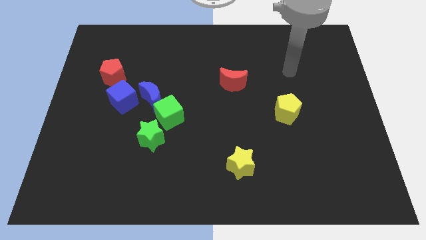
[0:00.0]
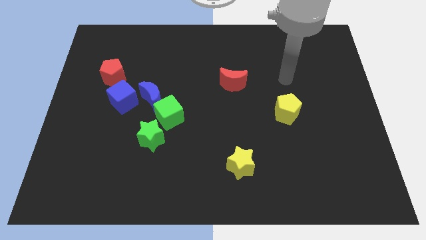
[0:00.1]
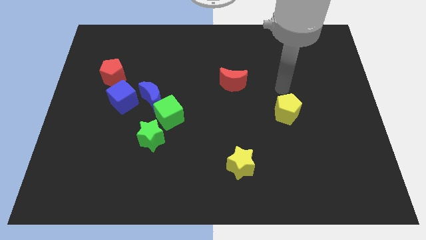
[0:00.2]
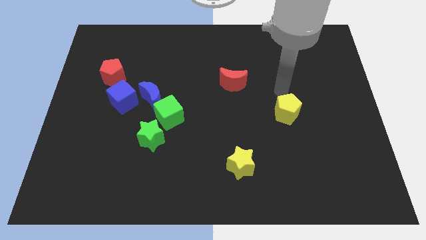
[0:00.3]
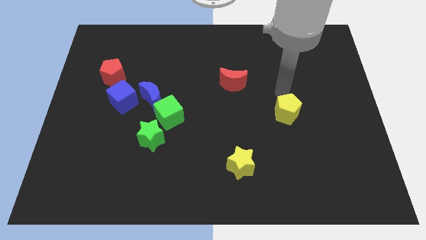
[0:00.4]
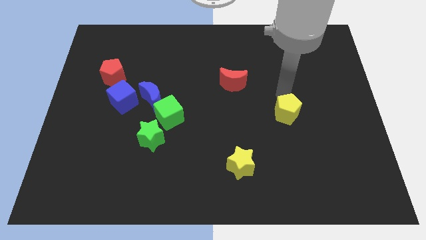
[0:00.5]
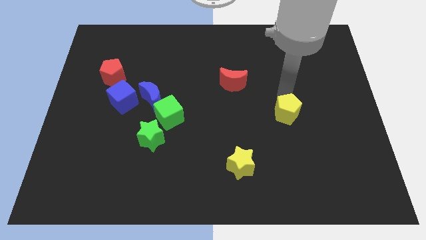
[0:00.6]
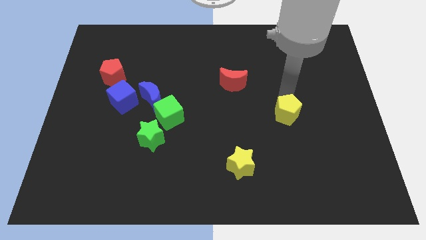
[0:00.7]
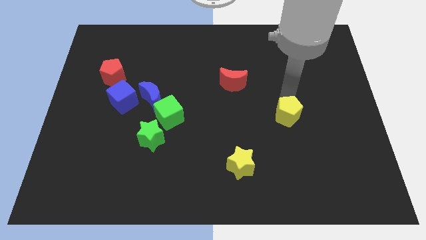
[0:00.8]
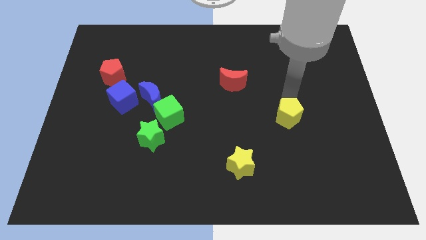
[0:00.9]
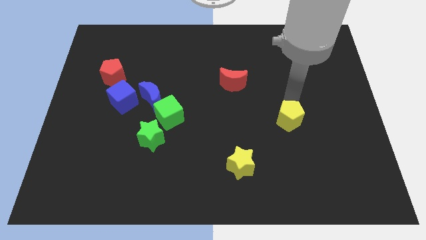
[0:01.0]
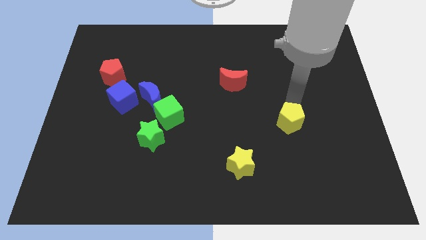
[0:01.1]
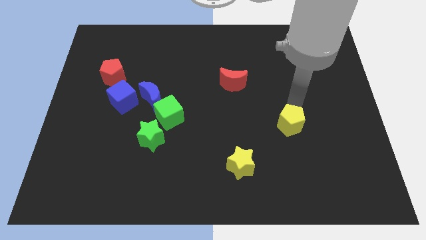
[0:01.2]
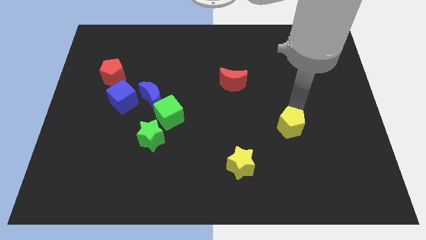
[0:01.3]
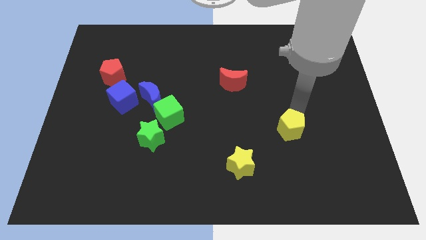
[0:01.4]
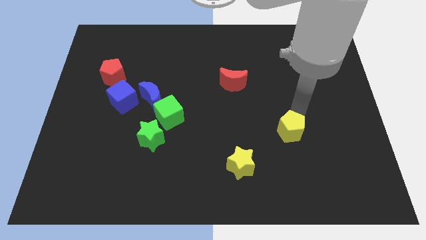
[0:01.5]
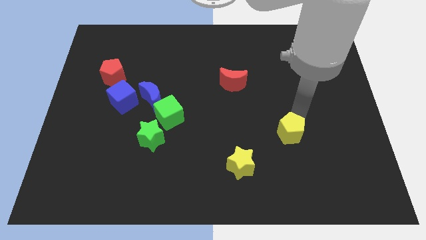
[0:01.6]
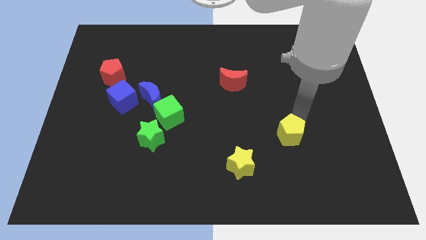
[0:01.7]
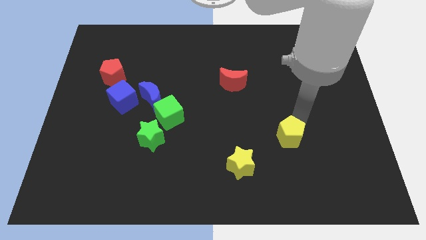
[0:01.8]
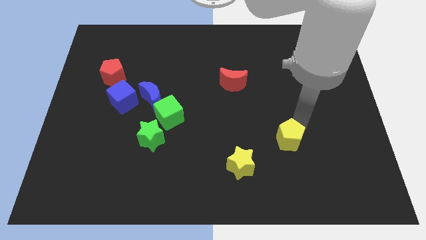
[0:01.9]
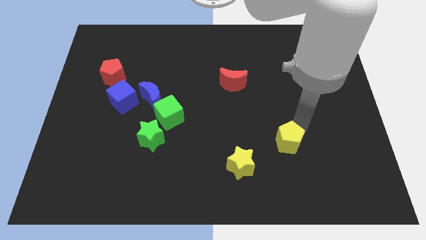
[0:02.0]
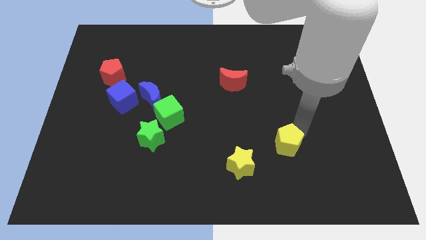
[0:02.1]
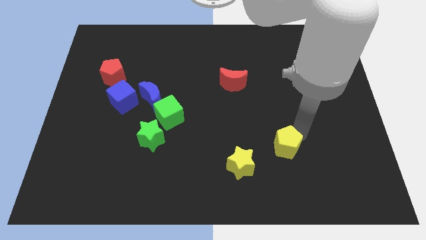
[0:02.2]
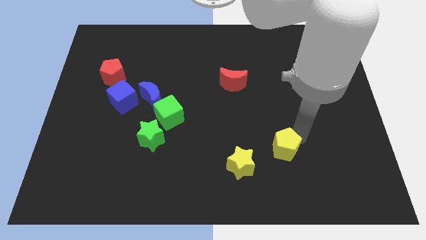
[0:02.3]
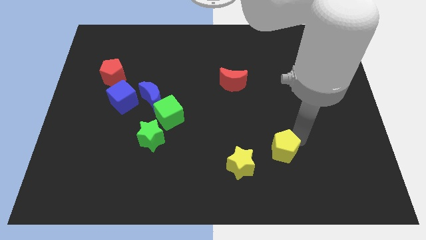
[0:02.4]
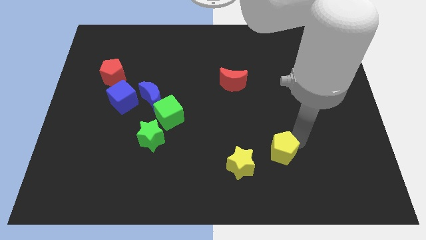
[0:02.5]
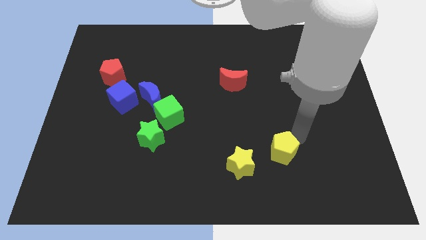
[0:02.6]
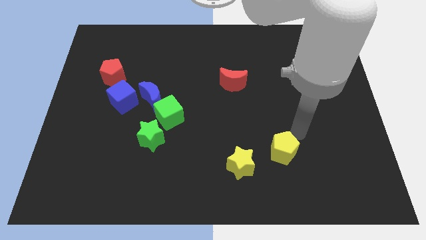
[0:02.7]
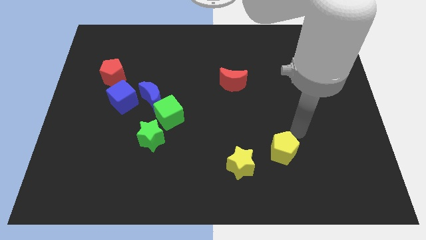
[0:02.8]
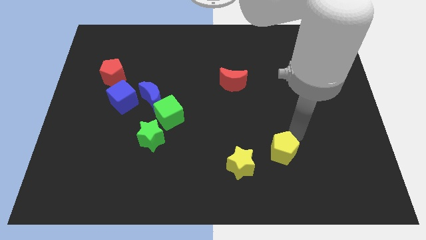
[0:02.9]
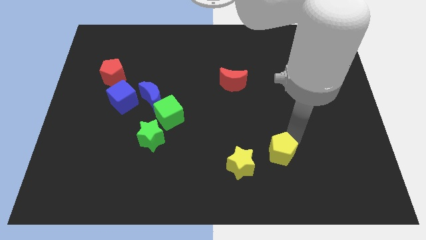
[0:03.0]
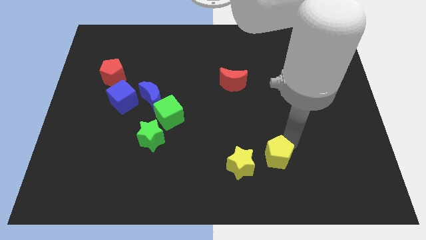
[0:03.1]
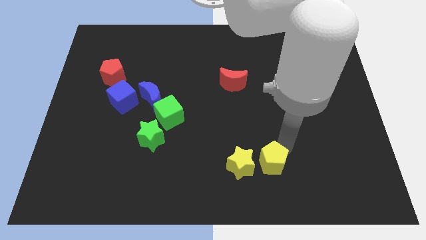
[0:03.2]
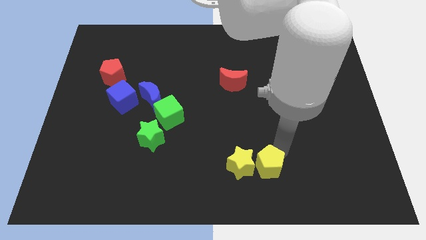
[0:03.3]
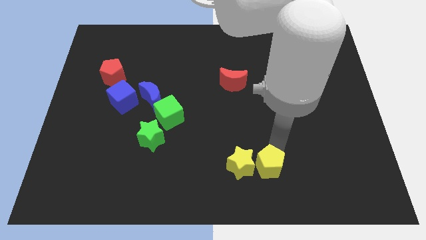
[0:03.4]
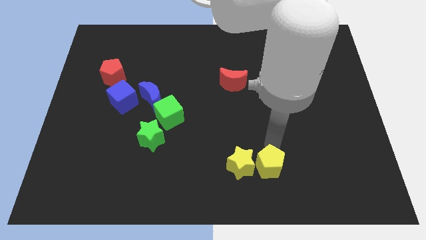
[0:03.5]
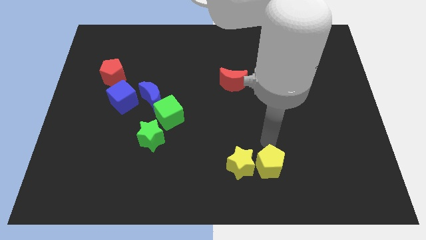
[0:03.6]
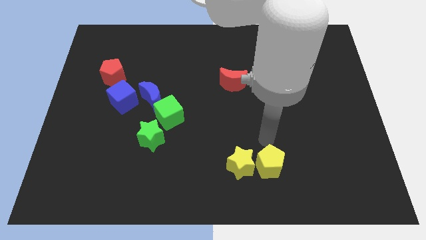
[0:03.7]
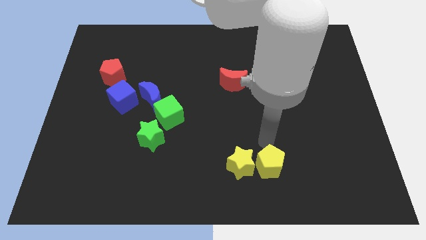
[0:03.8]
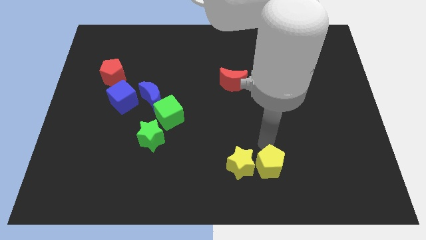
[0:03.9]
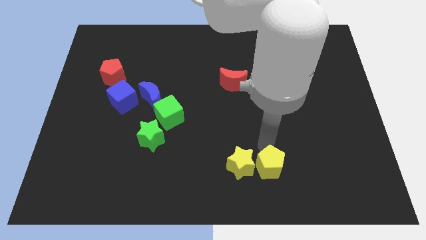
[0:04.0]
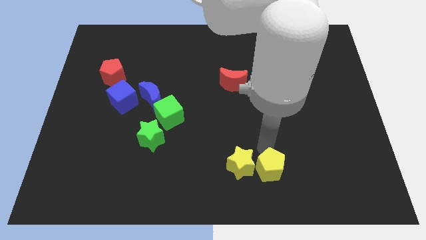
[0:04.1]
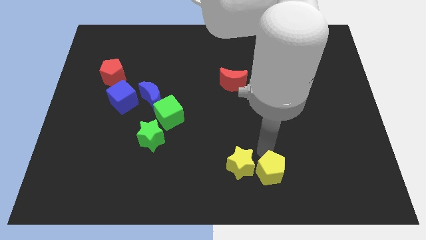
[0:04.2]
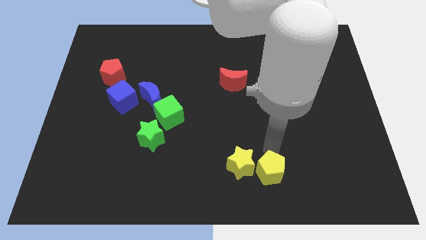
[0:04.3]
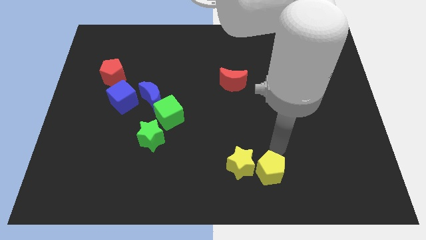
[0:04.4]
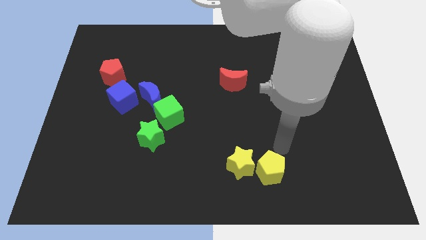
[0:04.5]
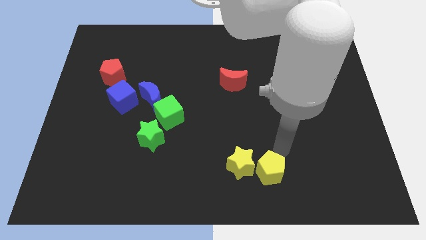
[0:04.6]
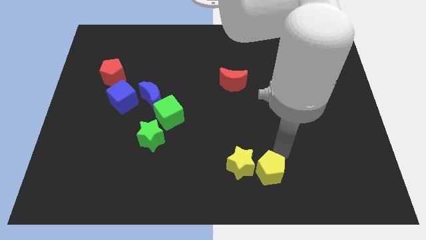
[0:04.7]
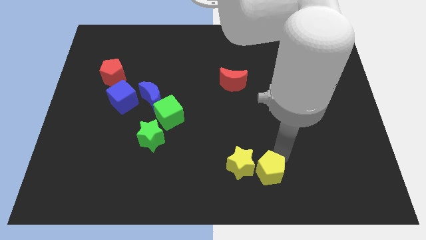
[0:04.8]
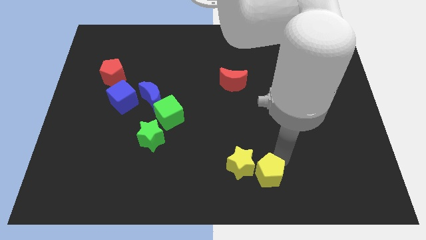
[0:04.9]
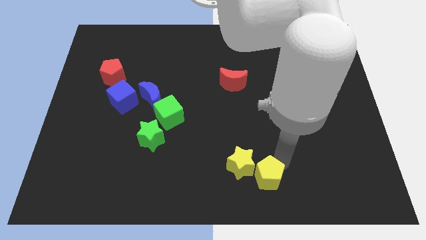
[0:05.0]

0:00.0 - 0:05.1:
put the yellow pentagon to the bottom side

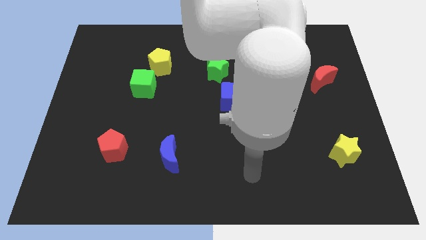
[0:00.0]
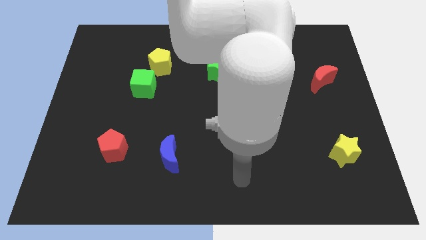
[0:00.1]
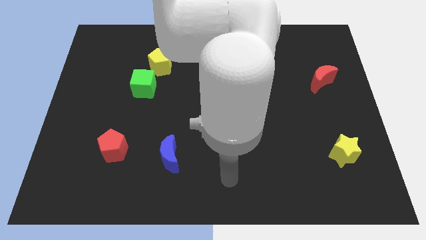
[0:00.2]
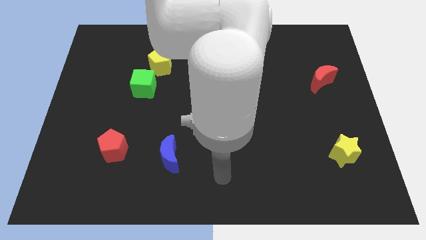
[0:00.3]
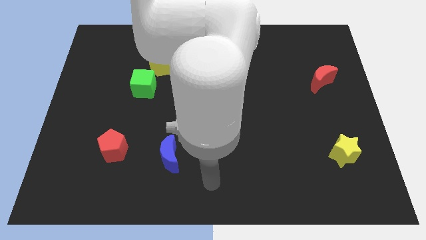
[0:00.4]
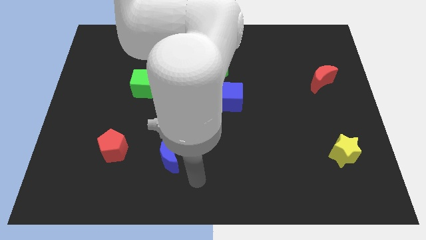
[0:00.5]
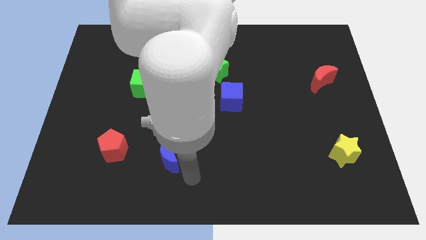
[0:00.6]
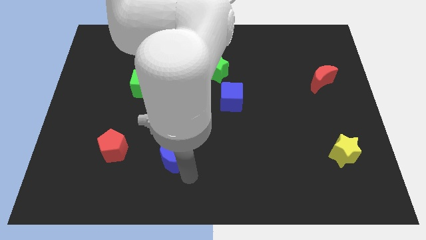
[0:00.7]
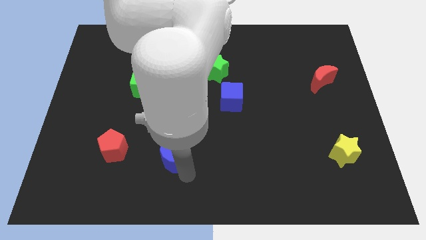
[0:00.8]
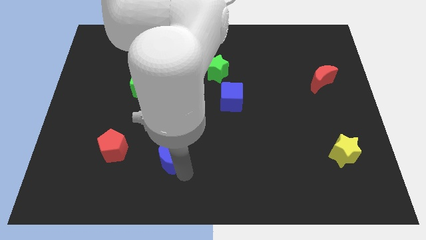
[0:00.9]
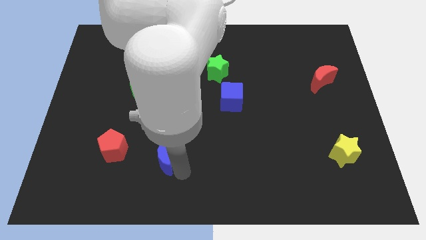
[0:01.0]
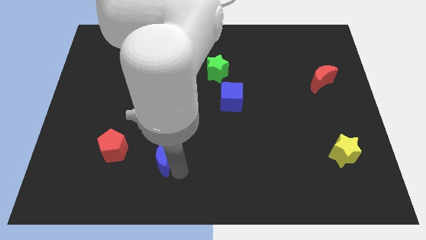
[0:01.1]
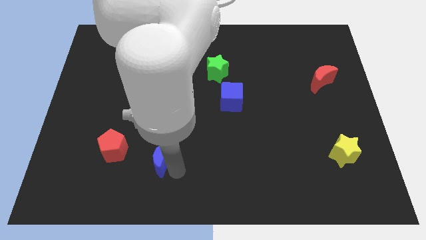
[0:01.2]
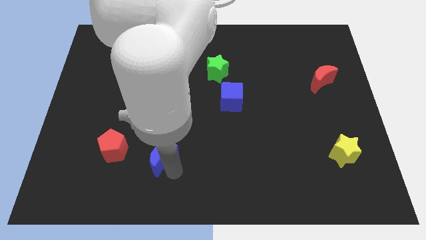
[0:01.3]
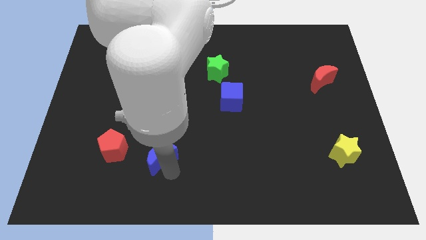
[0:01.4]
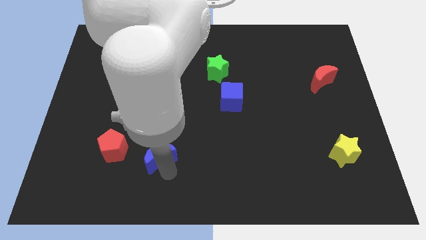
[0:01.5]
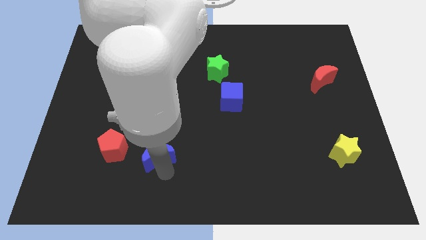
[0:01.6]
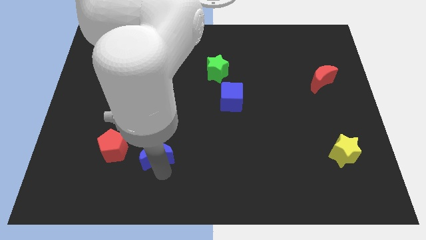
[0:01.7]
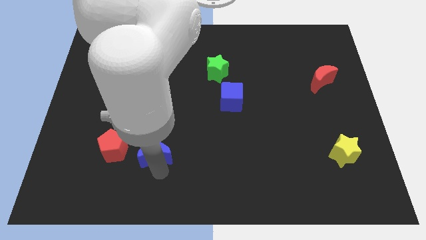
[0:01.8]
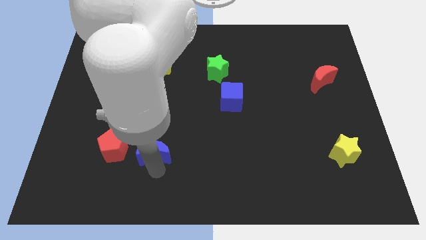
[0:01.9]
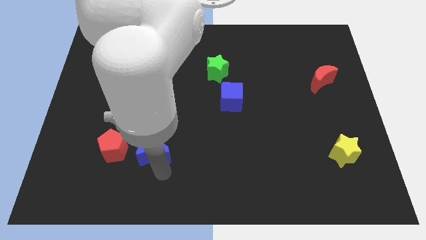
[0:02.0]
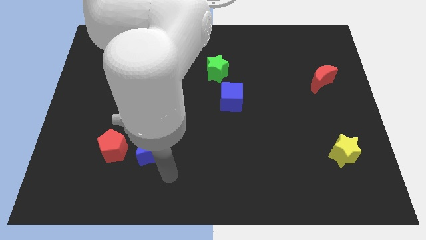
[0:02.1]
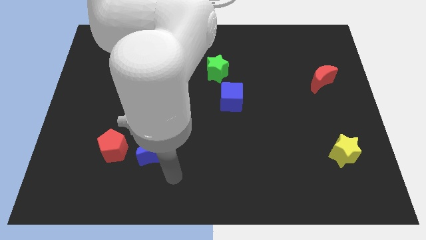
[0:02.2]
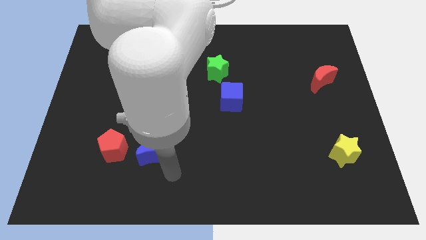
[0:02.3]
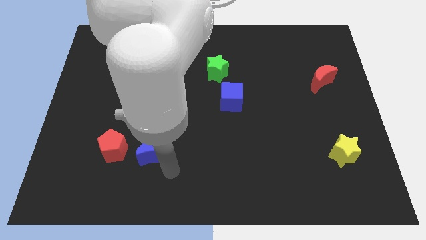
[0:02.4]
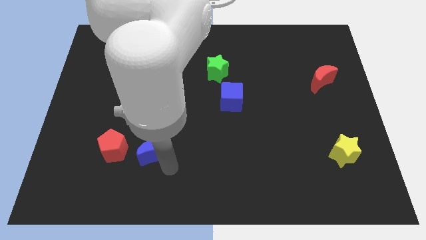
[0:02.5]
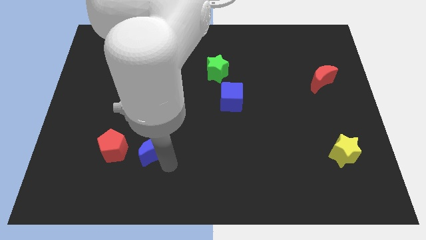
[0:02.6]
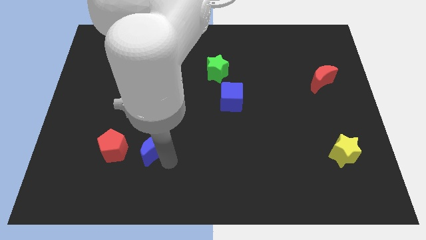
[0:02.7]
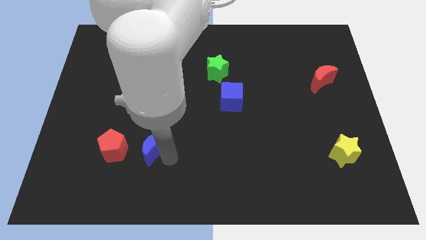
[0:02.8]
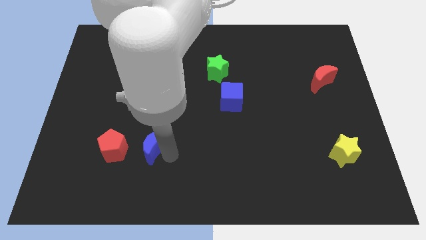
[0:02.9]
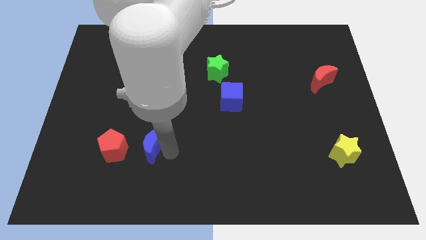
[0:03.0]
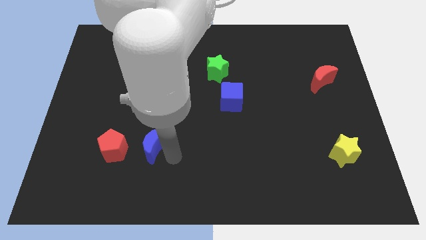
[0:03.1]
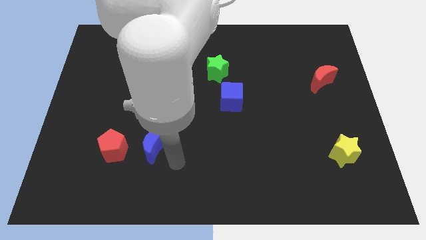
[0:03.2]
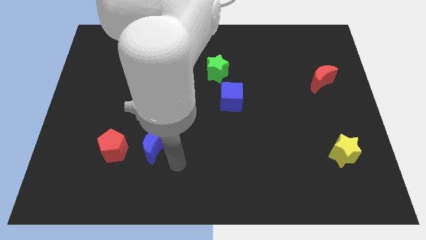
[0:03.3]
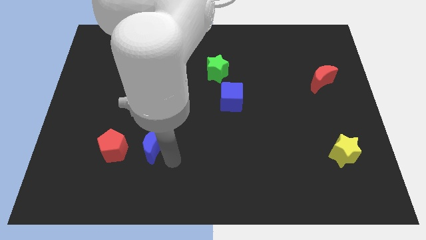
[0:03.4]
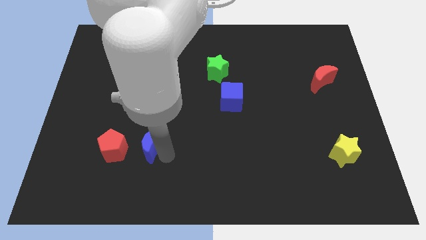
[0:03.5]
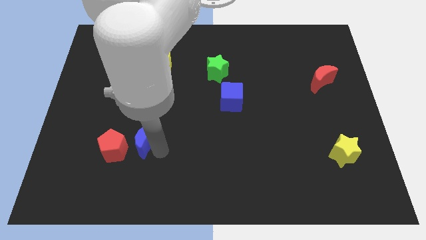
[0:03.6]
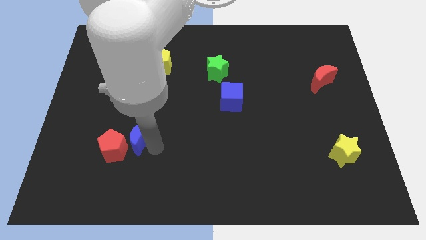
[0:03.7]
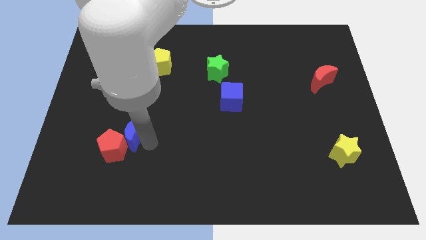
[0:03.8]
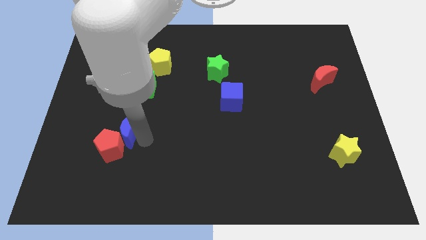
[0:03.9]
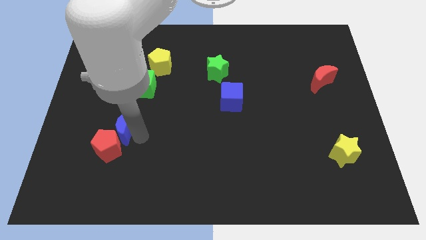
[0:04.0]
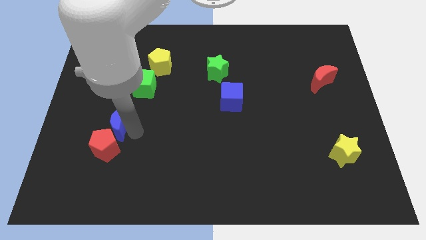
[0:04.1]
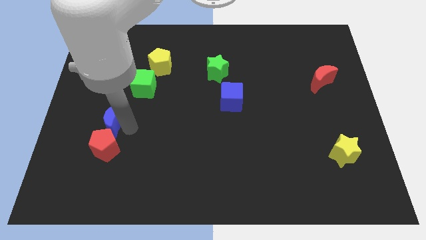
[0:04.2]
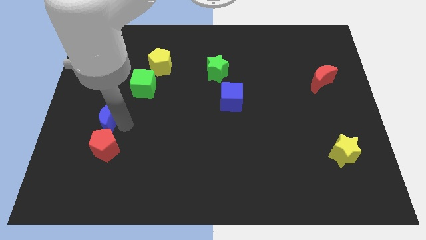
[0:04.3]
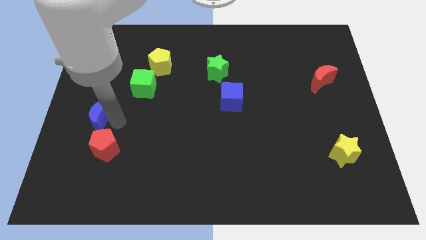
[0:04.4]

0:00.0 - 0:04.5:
push the blue moon to the left side of the board
